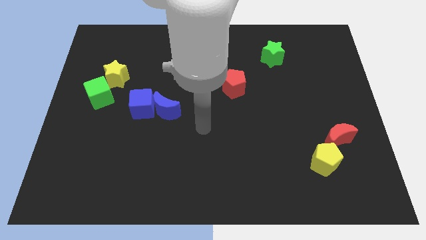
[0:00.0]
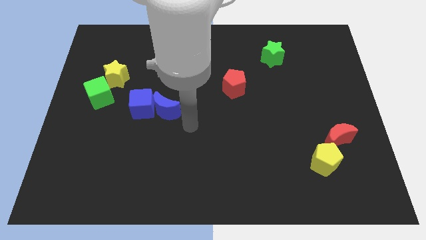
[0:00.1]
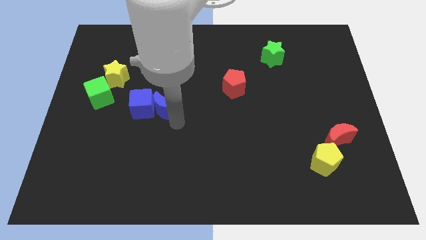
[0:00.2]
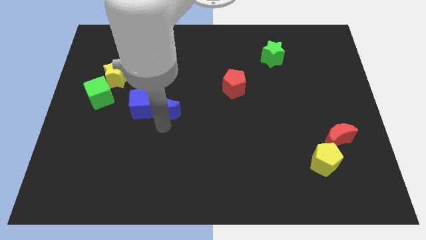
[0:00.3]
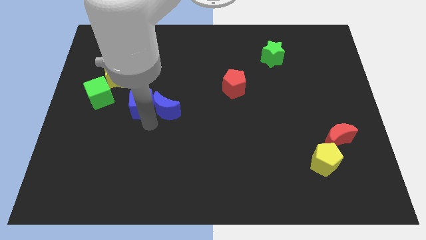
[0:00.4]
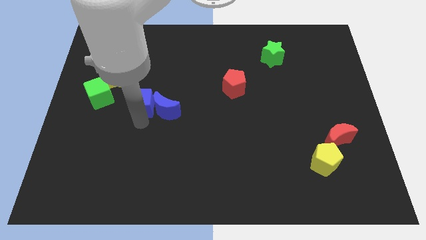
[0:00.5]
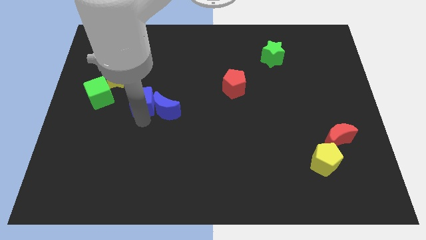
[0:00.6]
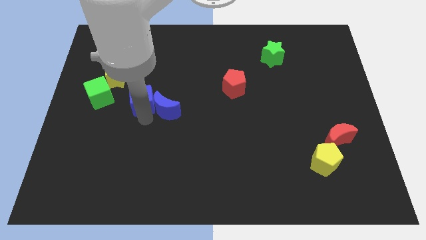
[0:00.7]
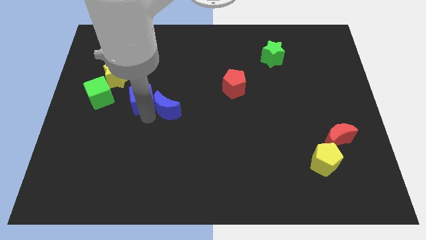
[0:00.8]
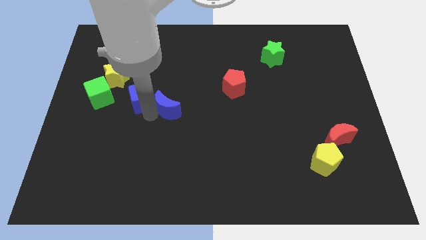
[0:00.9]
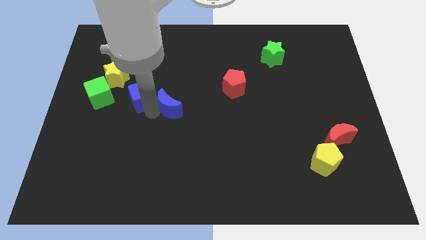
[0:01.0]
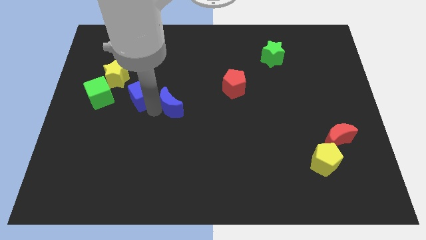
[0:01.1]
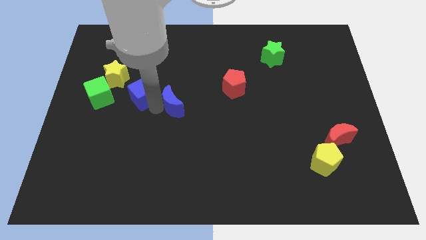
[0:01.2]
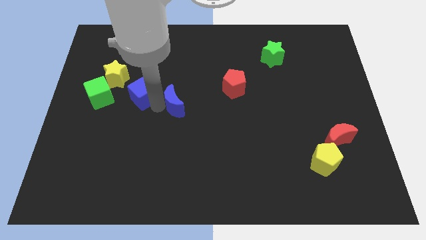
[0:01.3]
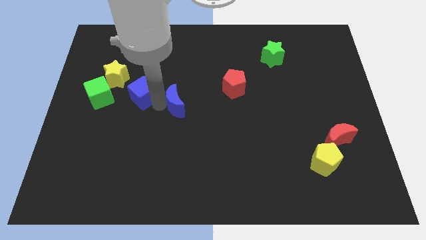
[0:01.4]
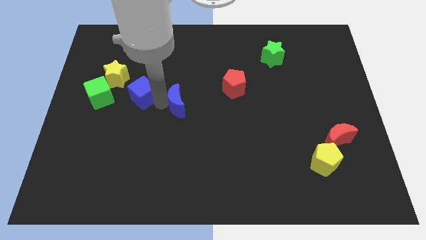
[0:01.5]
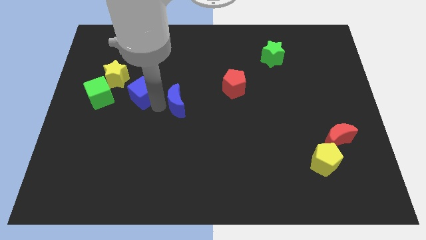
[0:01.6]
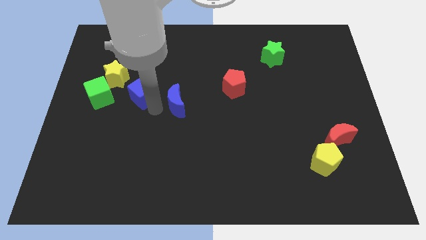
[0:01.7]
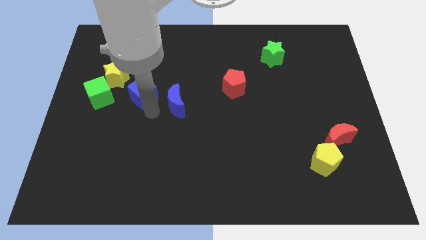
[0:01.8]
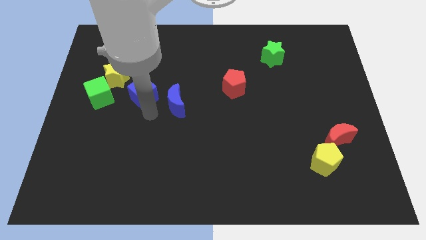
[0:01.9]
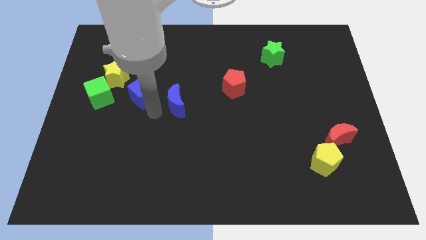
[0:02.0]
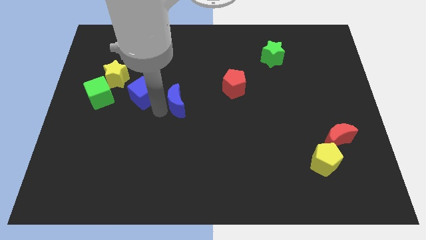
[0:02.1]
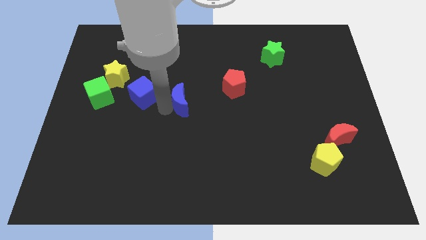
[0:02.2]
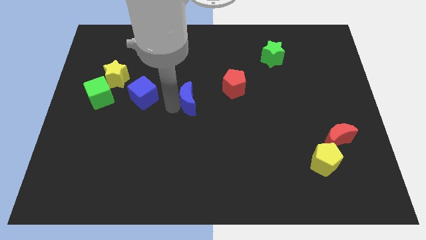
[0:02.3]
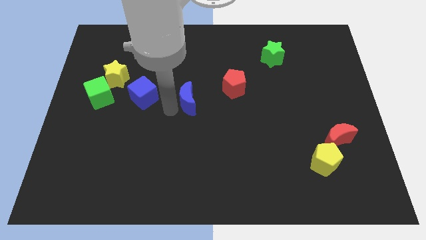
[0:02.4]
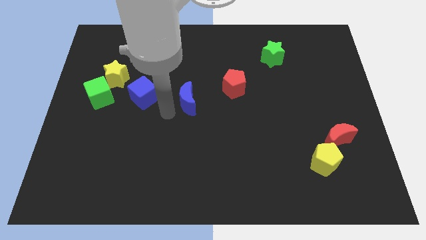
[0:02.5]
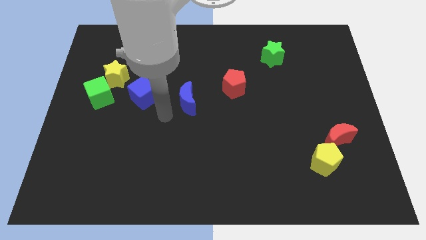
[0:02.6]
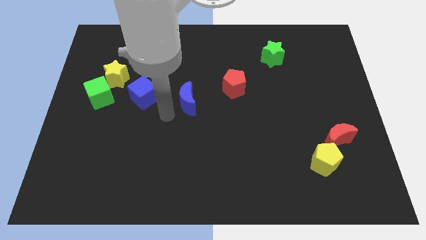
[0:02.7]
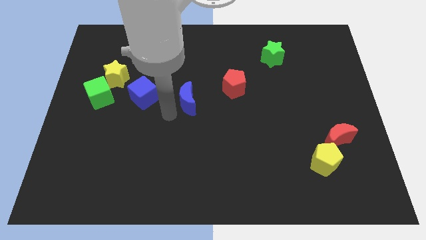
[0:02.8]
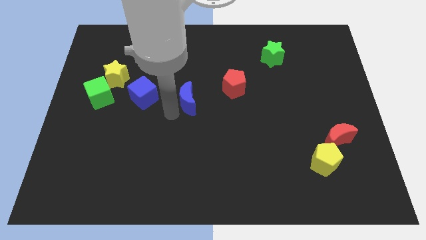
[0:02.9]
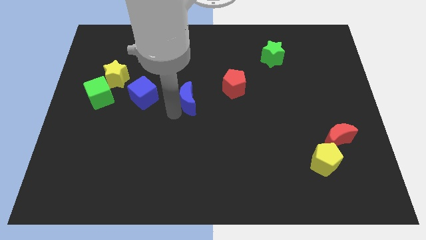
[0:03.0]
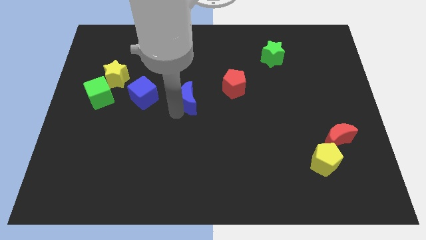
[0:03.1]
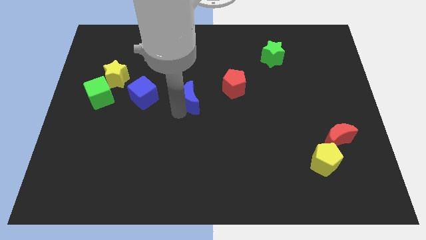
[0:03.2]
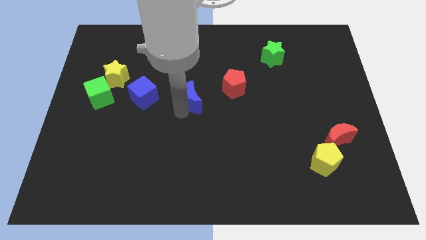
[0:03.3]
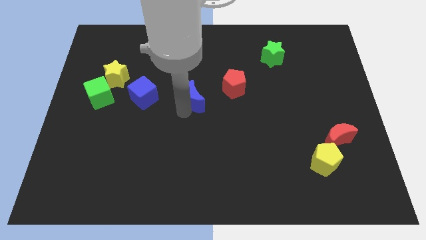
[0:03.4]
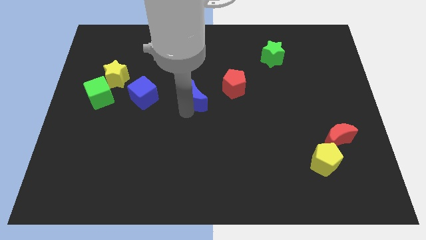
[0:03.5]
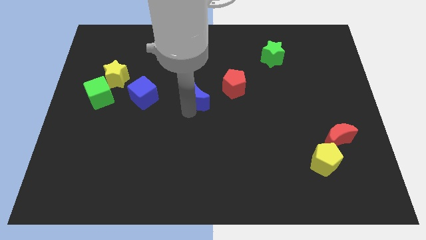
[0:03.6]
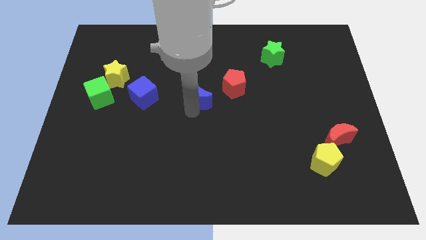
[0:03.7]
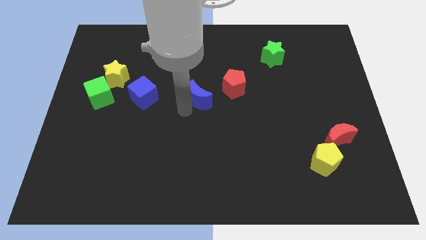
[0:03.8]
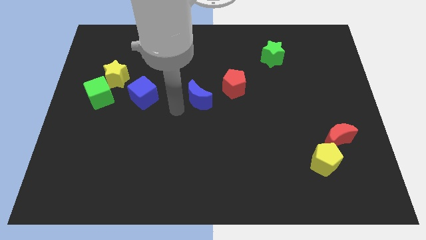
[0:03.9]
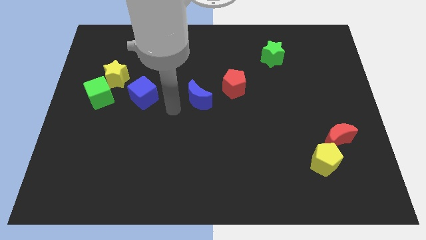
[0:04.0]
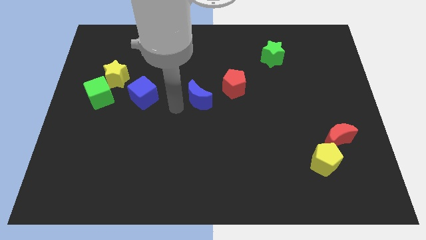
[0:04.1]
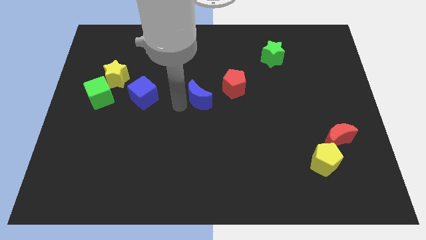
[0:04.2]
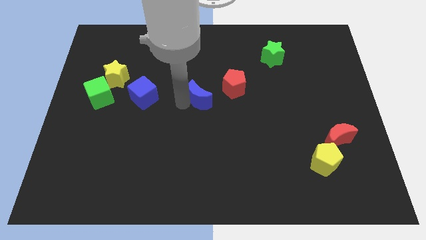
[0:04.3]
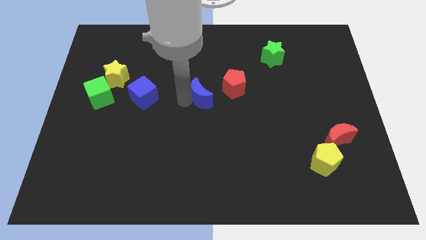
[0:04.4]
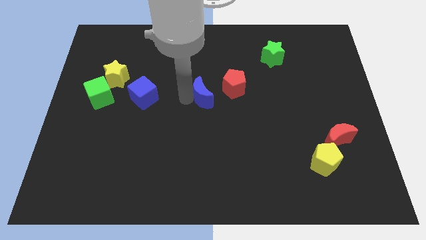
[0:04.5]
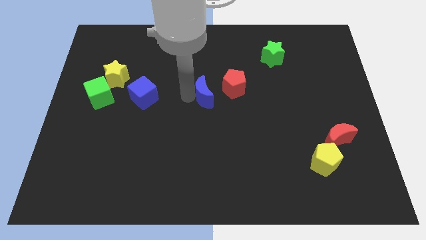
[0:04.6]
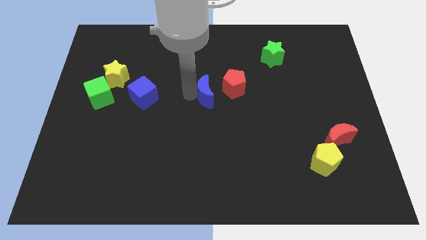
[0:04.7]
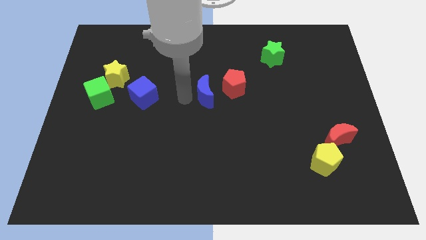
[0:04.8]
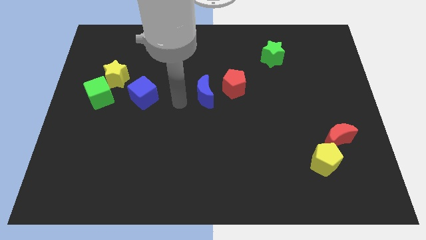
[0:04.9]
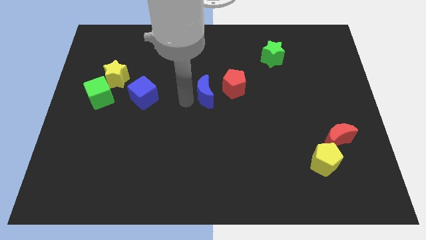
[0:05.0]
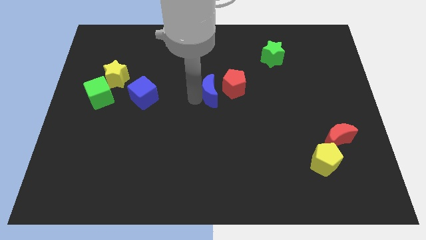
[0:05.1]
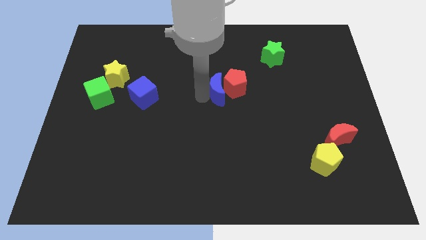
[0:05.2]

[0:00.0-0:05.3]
put the blue moon to the red pentagon
